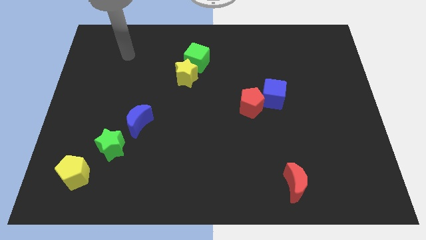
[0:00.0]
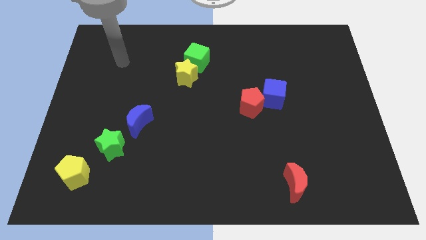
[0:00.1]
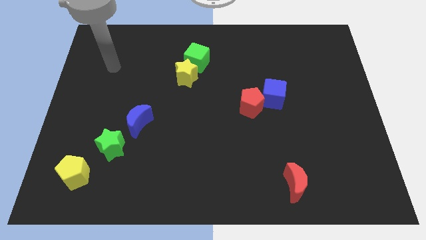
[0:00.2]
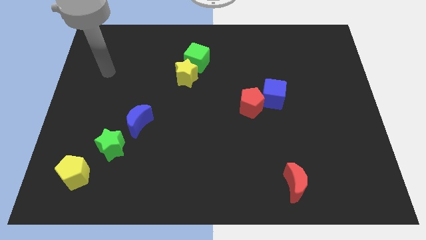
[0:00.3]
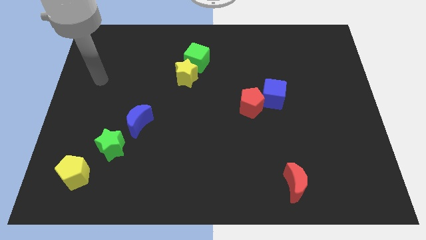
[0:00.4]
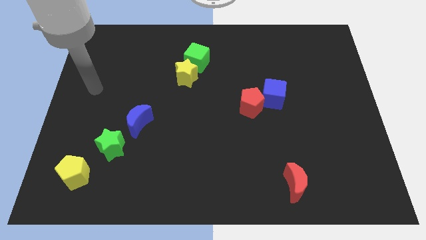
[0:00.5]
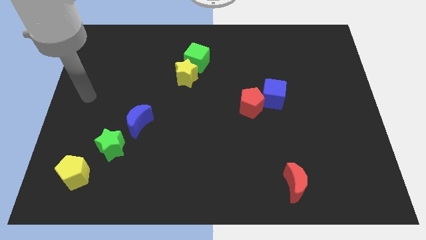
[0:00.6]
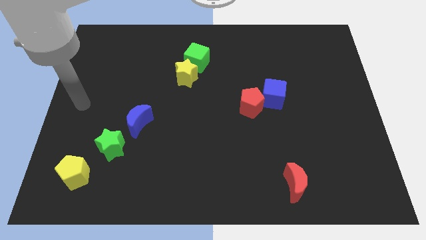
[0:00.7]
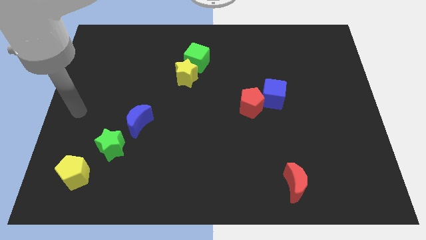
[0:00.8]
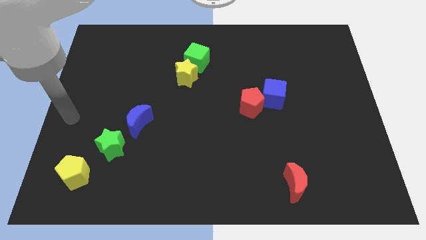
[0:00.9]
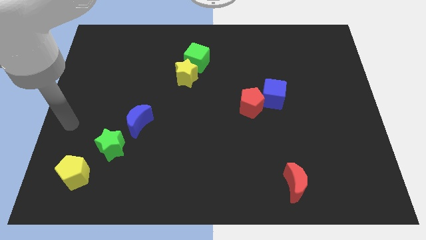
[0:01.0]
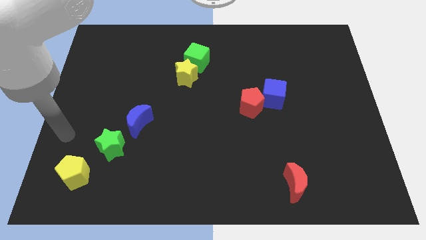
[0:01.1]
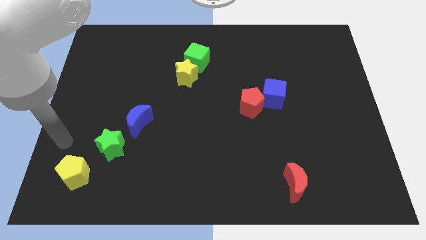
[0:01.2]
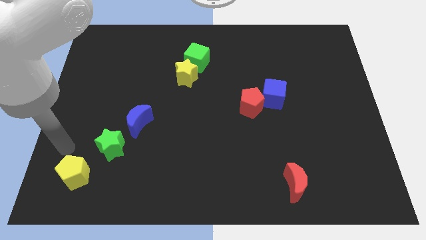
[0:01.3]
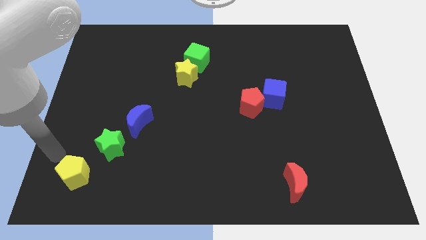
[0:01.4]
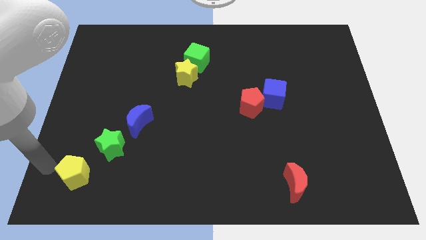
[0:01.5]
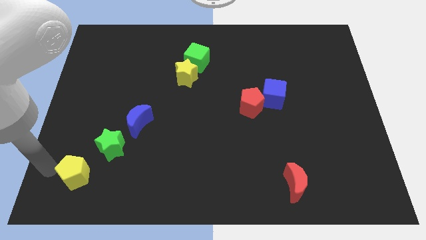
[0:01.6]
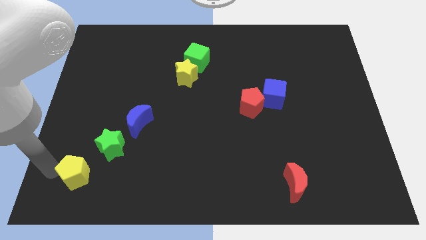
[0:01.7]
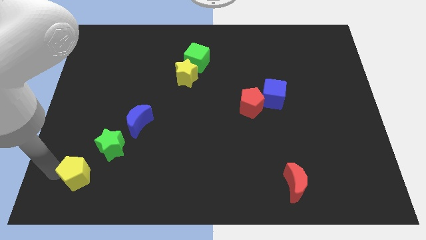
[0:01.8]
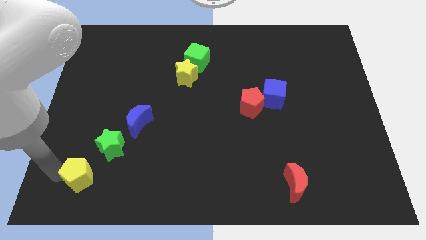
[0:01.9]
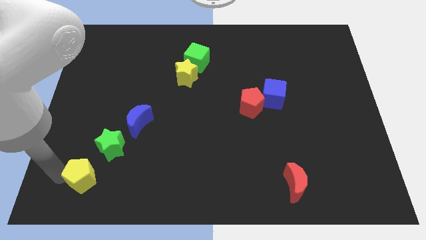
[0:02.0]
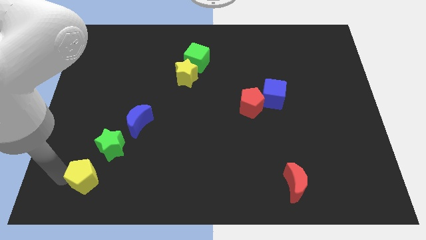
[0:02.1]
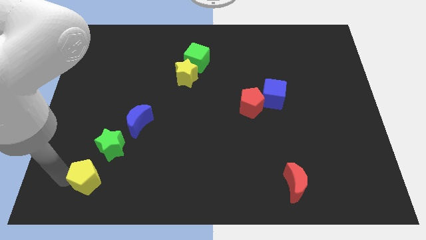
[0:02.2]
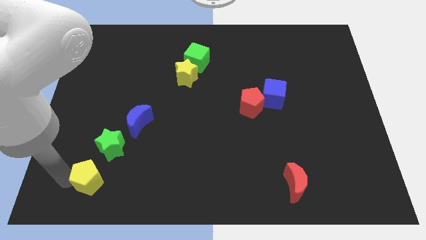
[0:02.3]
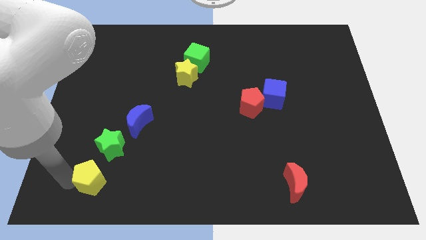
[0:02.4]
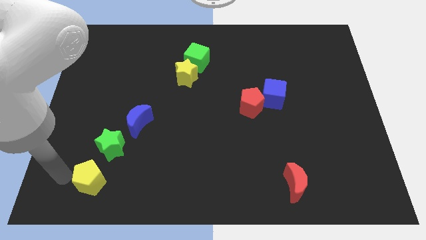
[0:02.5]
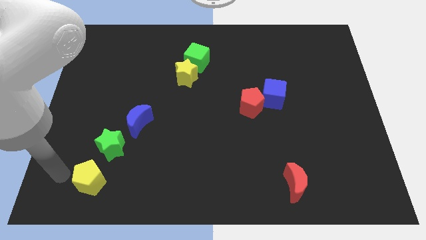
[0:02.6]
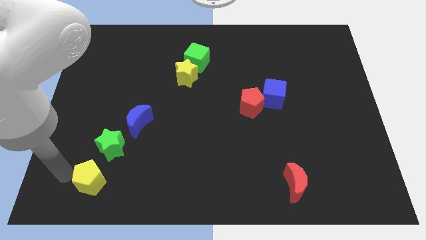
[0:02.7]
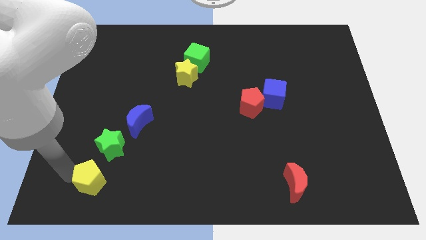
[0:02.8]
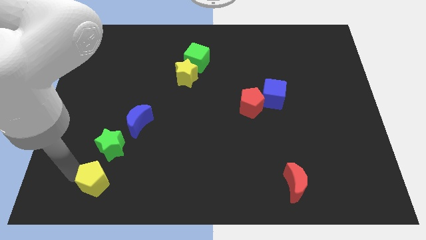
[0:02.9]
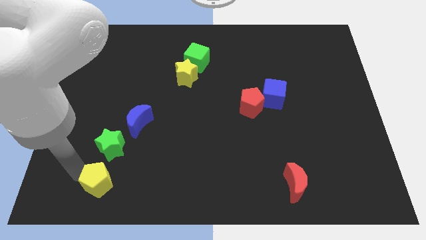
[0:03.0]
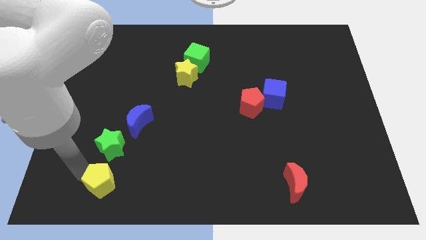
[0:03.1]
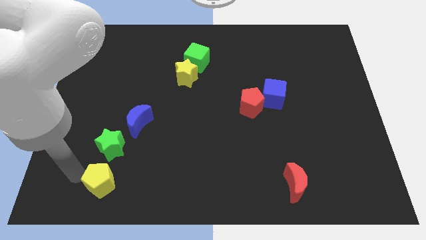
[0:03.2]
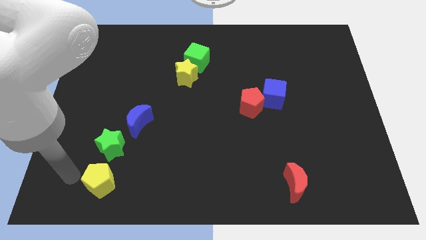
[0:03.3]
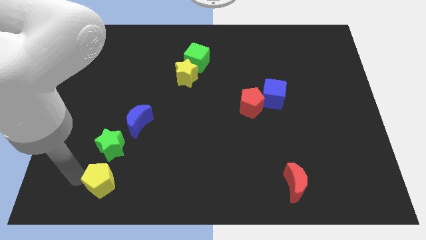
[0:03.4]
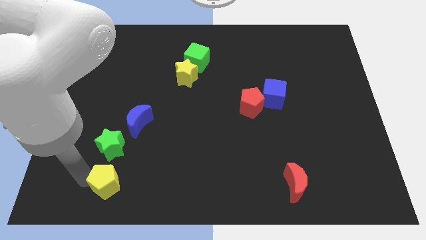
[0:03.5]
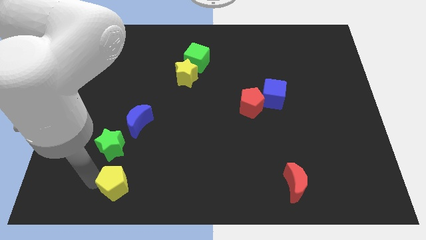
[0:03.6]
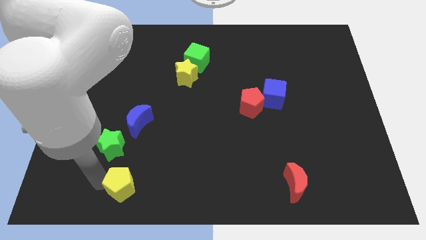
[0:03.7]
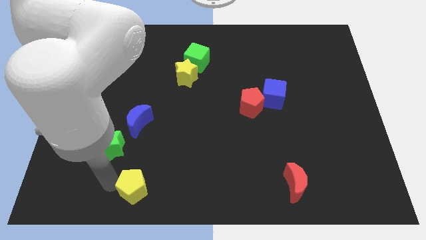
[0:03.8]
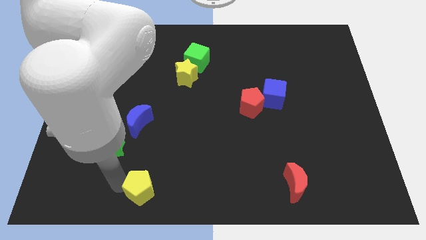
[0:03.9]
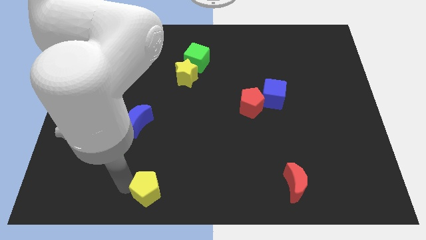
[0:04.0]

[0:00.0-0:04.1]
slide the yellow pentagon to the bottom side

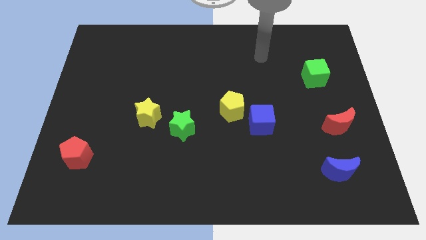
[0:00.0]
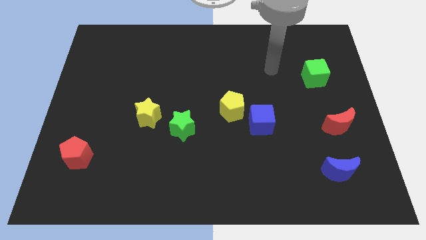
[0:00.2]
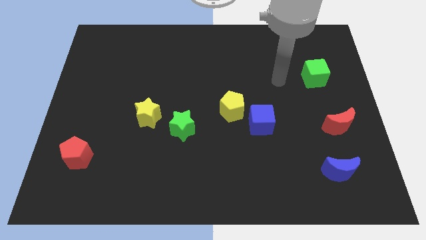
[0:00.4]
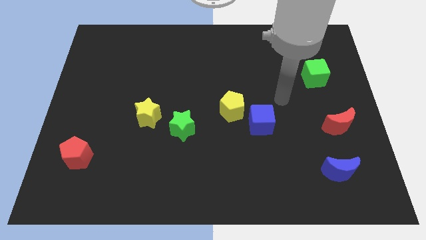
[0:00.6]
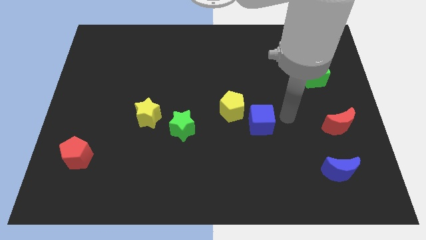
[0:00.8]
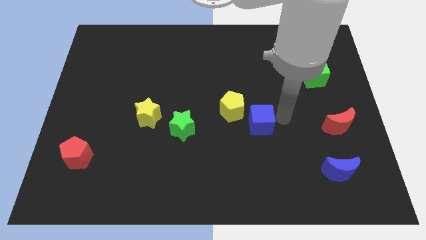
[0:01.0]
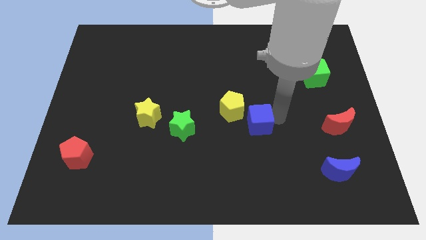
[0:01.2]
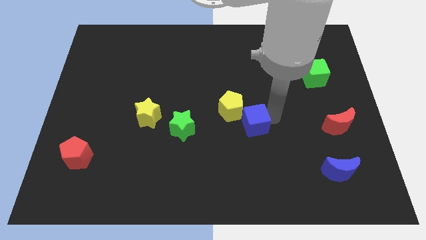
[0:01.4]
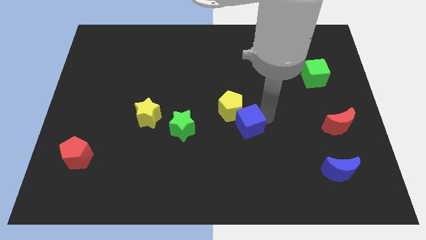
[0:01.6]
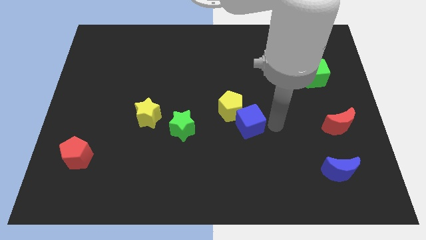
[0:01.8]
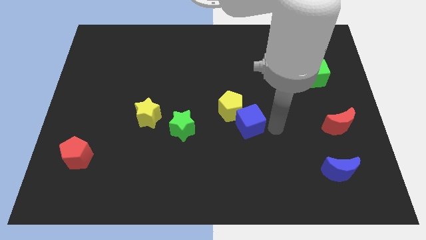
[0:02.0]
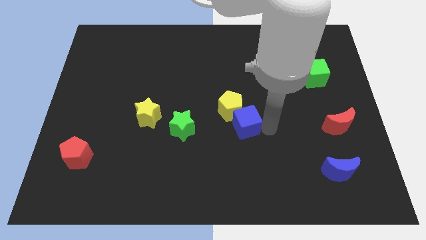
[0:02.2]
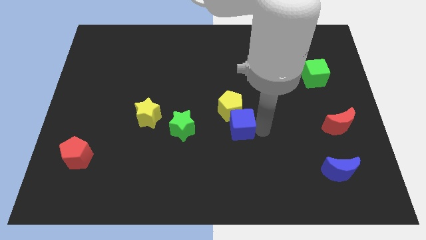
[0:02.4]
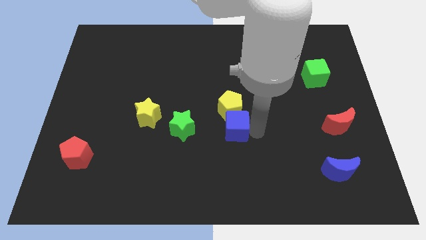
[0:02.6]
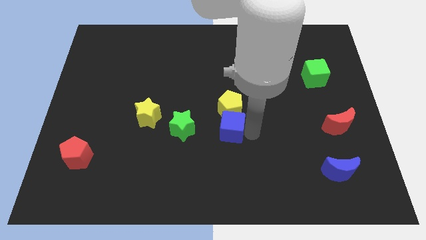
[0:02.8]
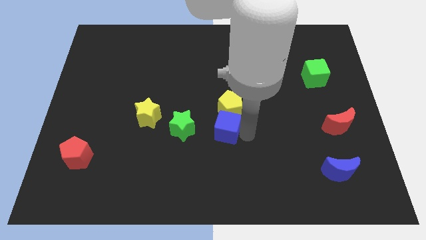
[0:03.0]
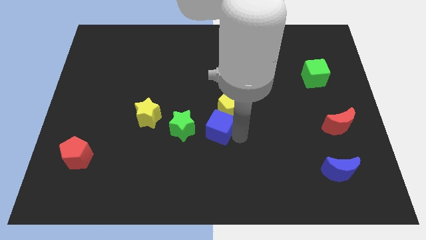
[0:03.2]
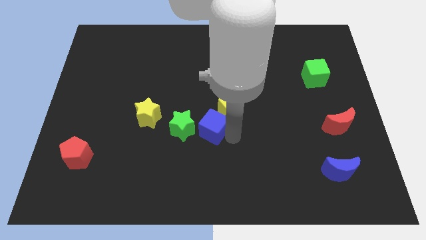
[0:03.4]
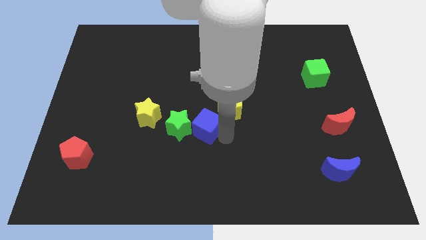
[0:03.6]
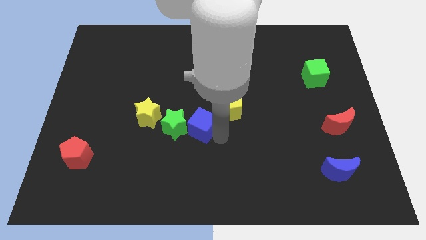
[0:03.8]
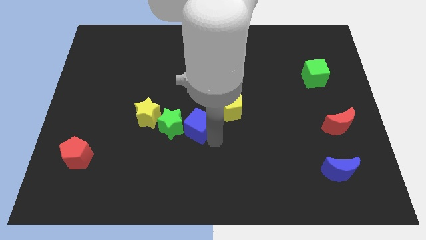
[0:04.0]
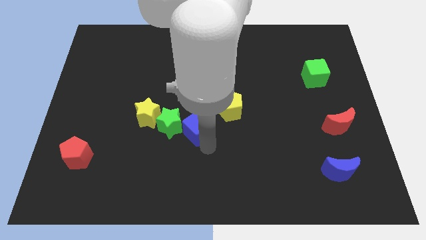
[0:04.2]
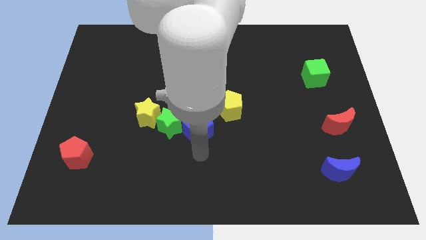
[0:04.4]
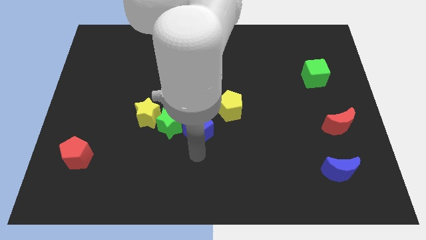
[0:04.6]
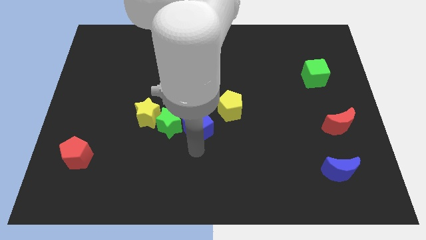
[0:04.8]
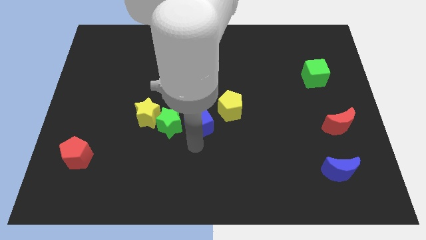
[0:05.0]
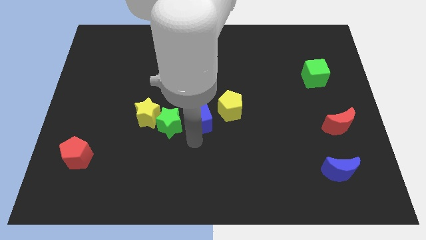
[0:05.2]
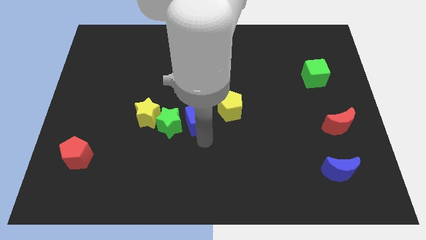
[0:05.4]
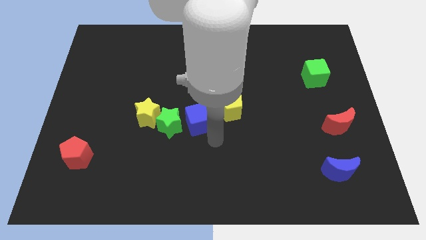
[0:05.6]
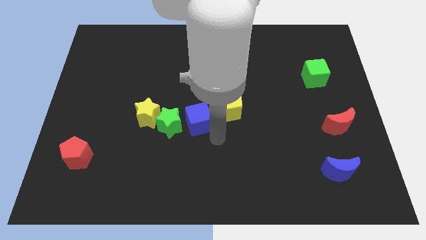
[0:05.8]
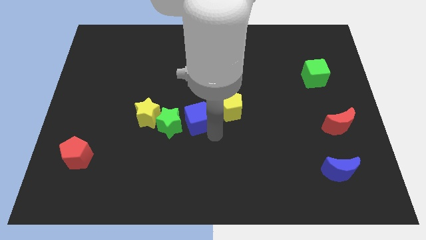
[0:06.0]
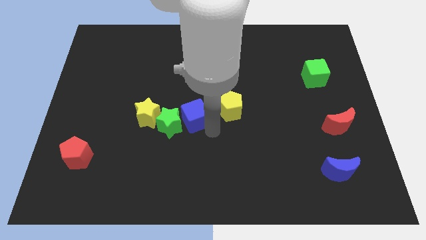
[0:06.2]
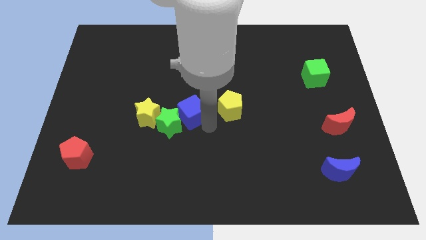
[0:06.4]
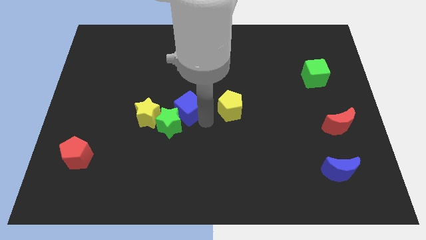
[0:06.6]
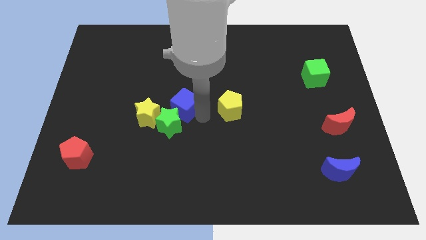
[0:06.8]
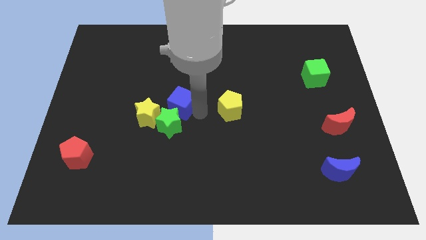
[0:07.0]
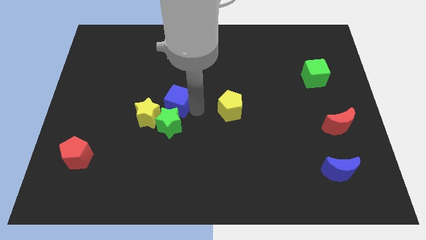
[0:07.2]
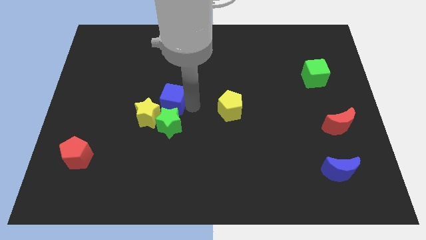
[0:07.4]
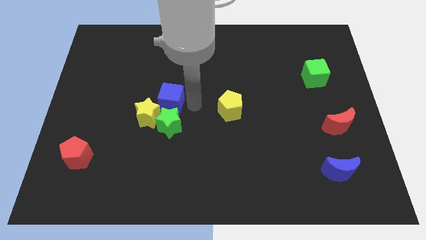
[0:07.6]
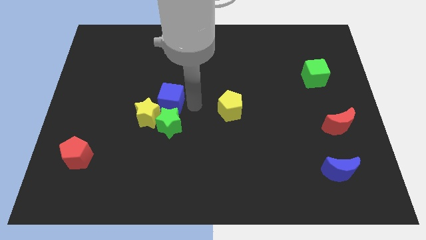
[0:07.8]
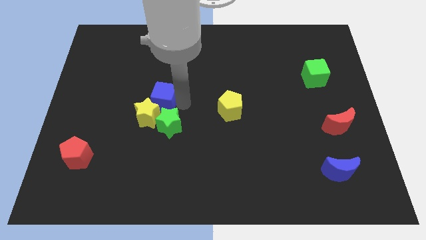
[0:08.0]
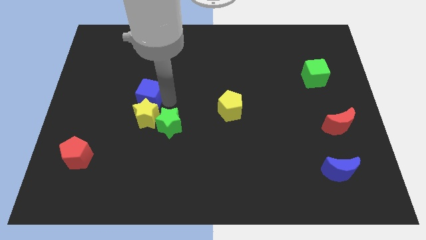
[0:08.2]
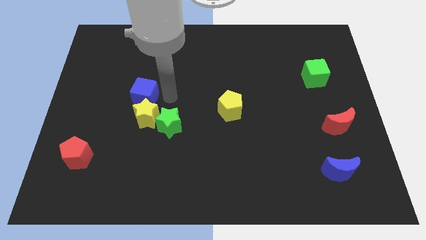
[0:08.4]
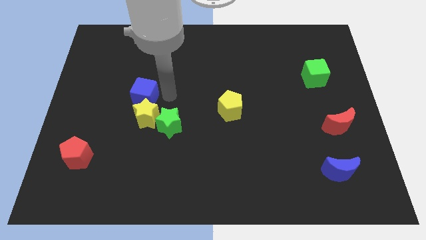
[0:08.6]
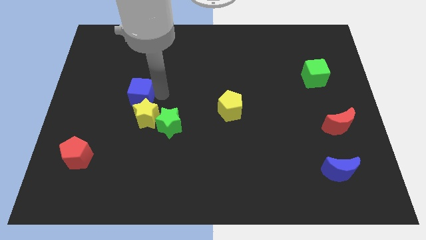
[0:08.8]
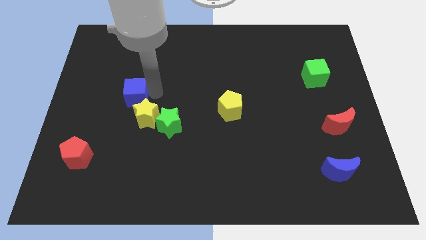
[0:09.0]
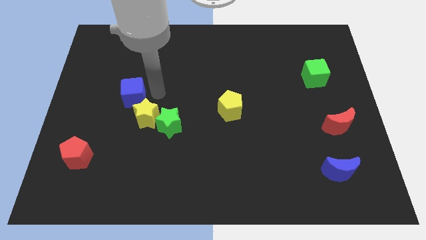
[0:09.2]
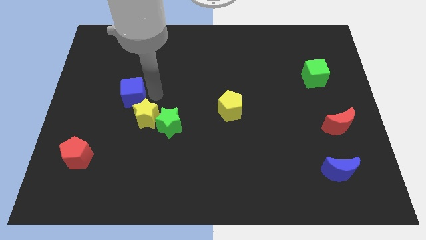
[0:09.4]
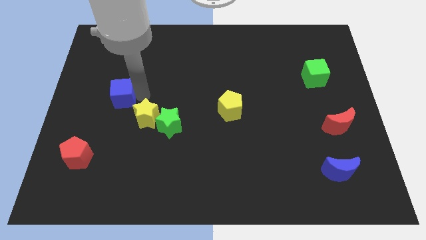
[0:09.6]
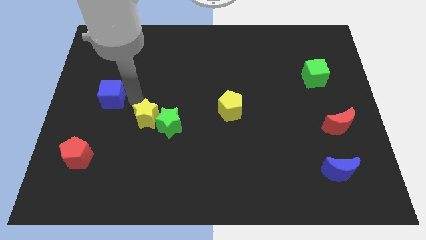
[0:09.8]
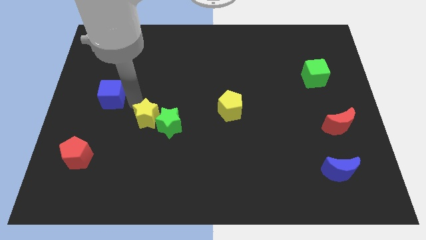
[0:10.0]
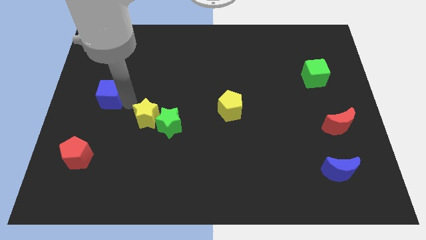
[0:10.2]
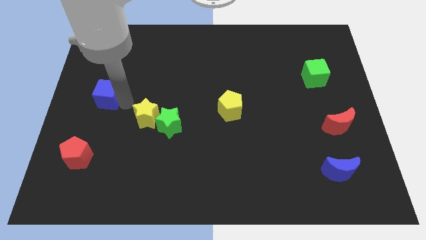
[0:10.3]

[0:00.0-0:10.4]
slide the blue cube to the left side
